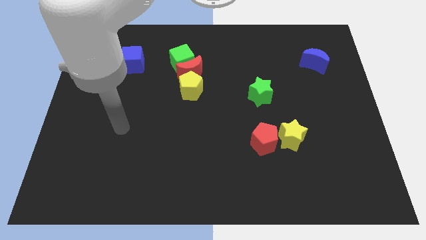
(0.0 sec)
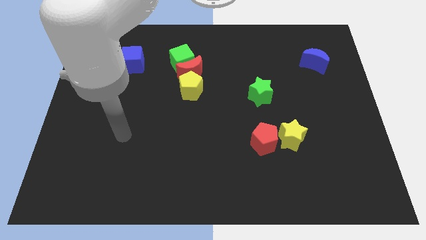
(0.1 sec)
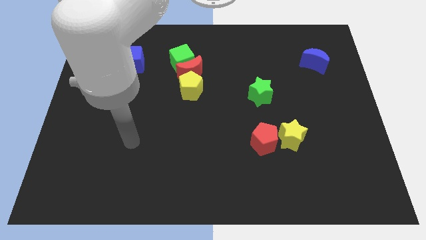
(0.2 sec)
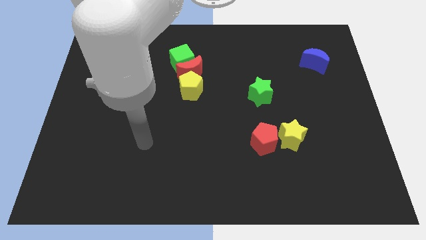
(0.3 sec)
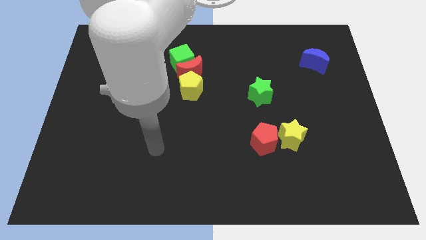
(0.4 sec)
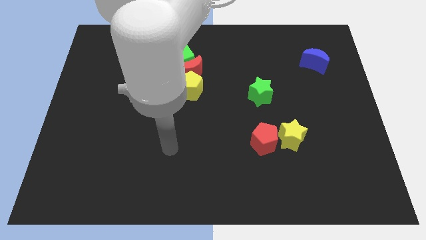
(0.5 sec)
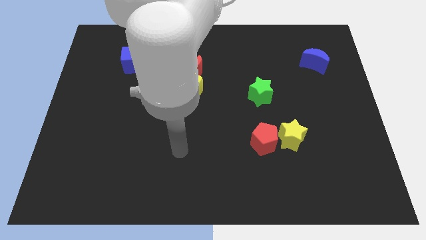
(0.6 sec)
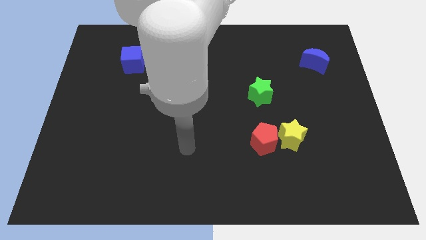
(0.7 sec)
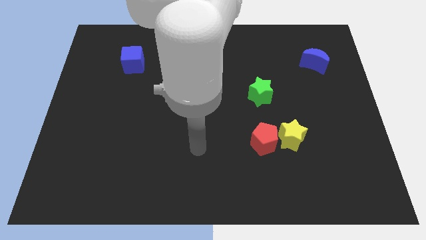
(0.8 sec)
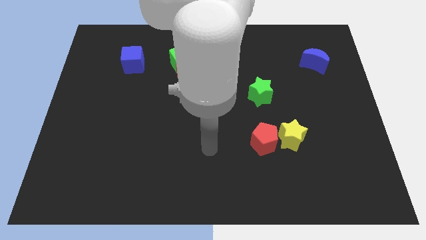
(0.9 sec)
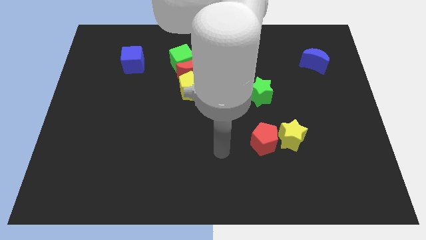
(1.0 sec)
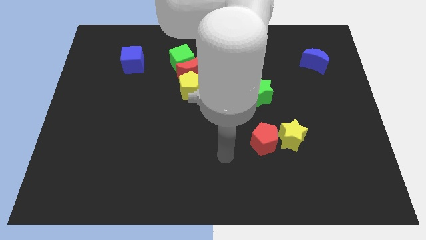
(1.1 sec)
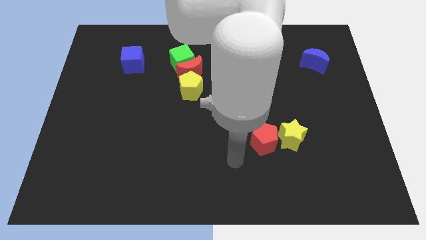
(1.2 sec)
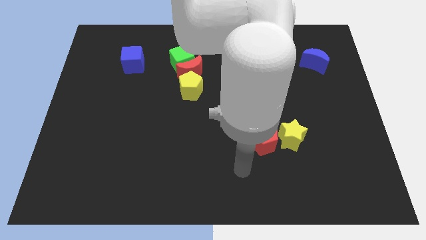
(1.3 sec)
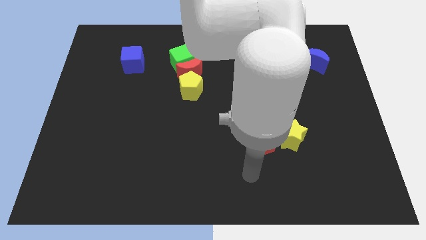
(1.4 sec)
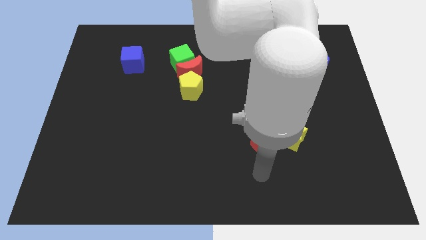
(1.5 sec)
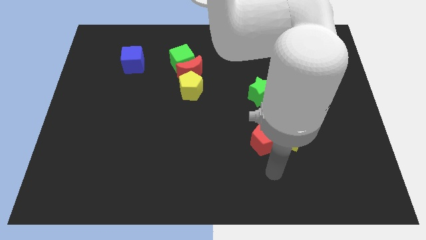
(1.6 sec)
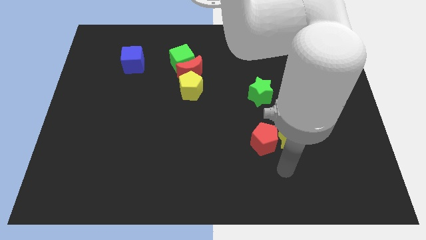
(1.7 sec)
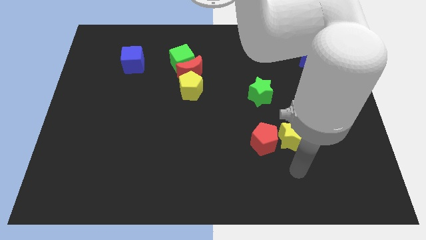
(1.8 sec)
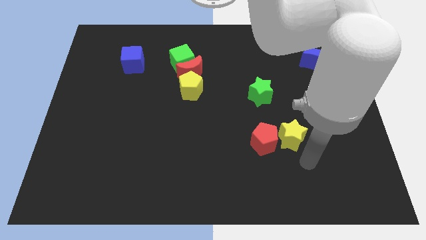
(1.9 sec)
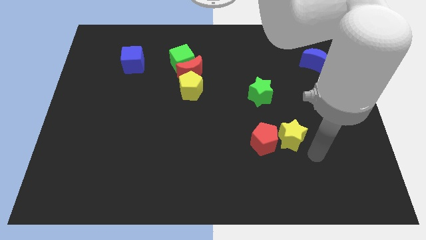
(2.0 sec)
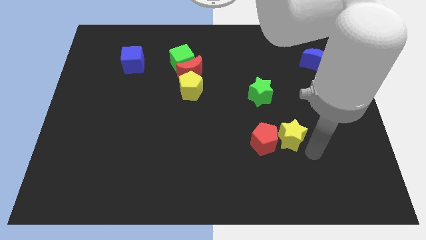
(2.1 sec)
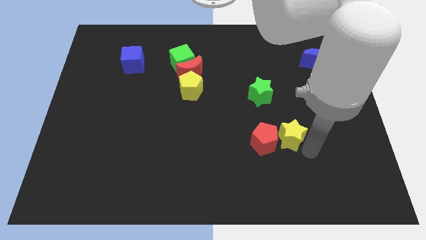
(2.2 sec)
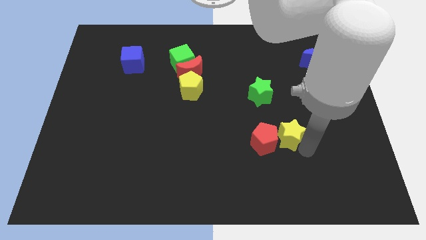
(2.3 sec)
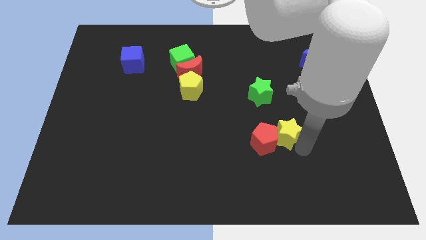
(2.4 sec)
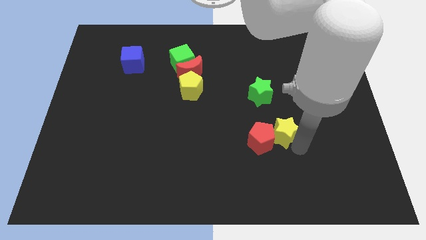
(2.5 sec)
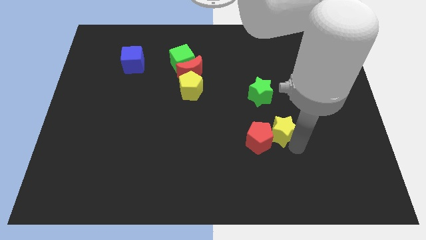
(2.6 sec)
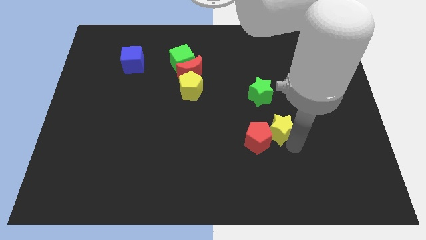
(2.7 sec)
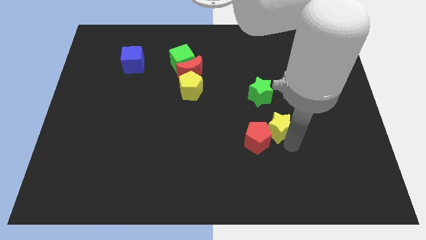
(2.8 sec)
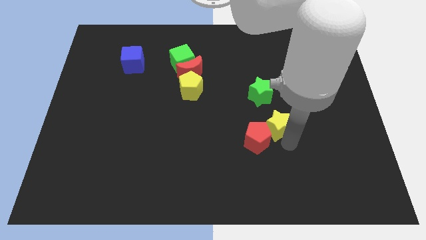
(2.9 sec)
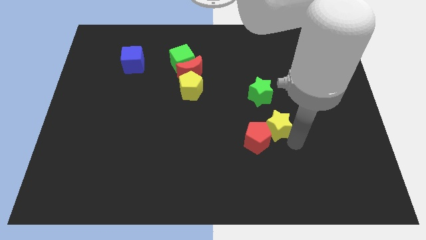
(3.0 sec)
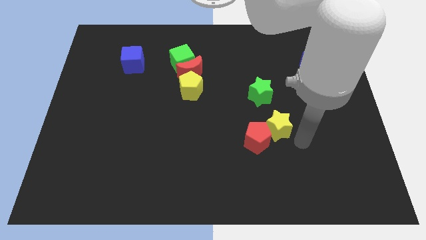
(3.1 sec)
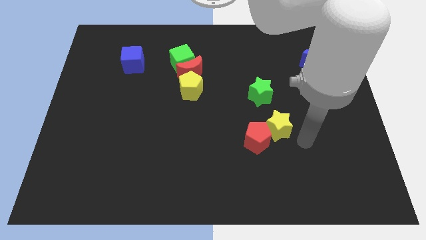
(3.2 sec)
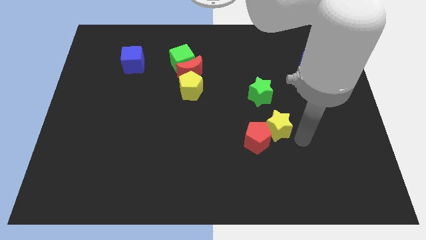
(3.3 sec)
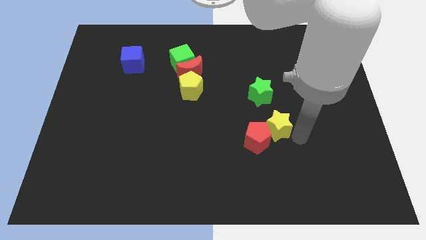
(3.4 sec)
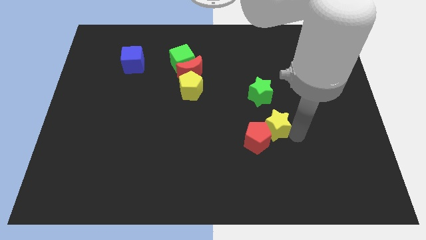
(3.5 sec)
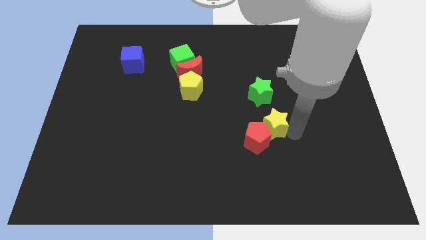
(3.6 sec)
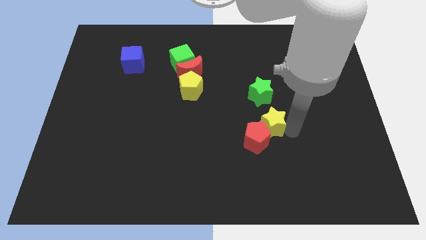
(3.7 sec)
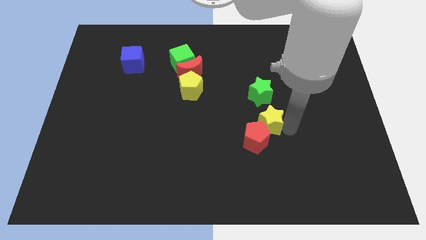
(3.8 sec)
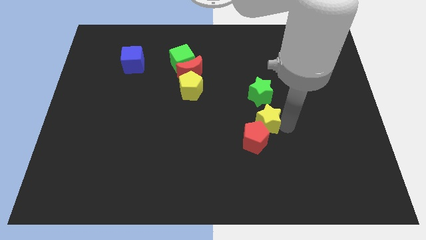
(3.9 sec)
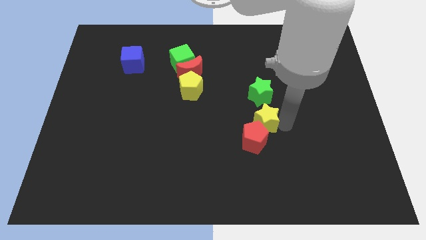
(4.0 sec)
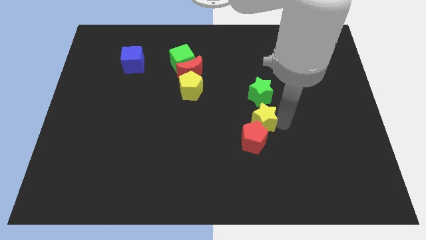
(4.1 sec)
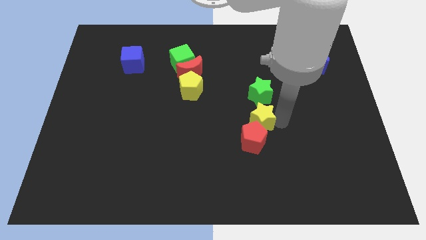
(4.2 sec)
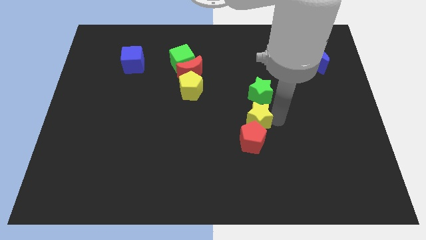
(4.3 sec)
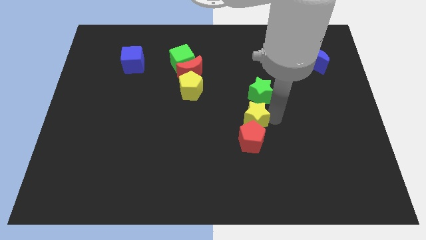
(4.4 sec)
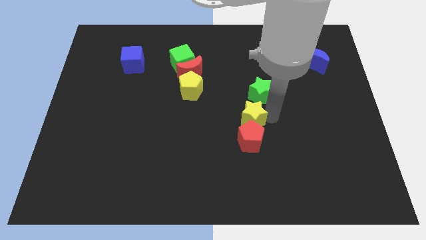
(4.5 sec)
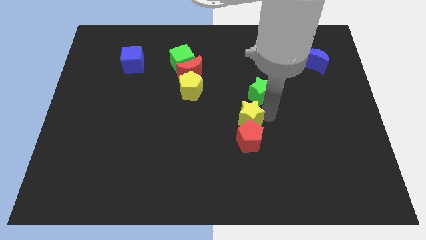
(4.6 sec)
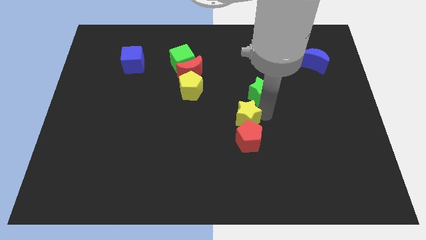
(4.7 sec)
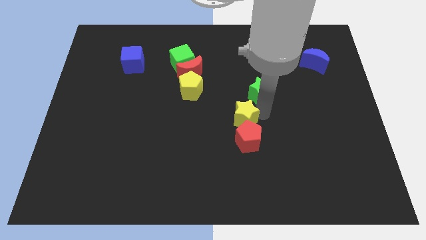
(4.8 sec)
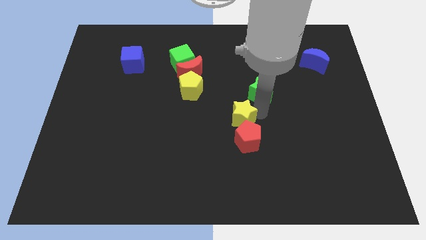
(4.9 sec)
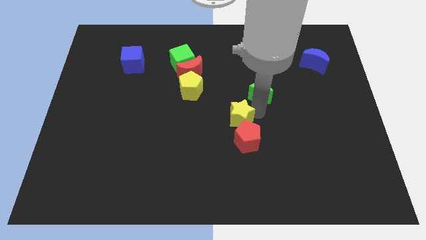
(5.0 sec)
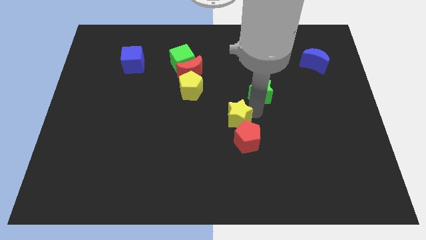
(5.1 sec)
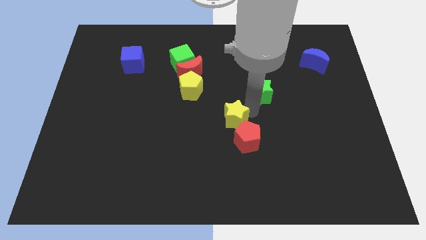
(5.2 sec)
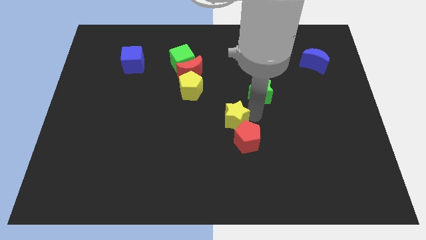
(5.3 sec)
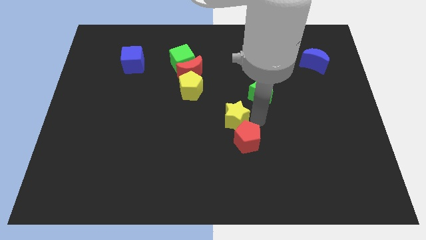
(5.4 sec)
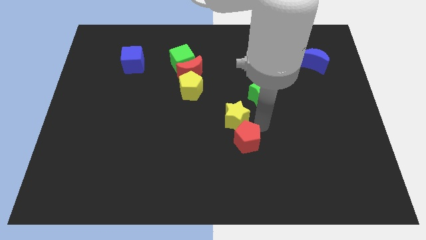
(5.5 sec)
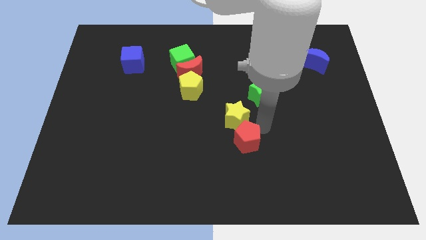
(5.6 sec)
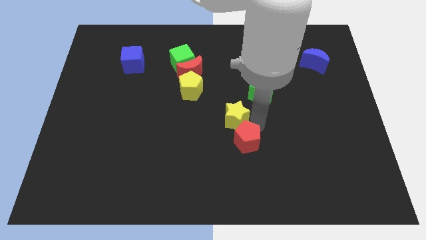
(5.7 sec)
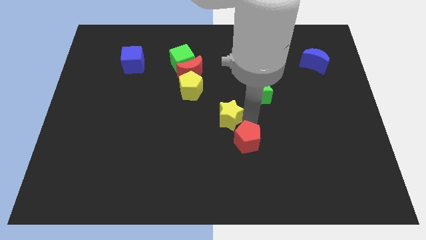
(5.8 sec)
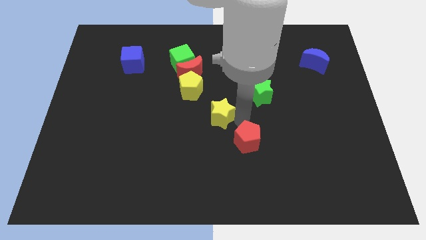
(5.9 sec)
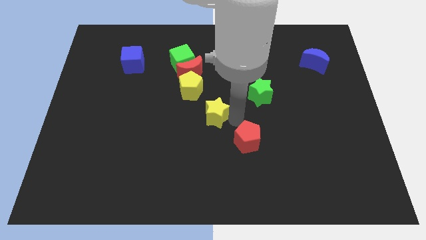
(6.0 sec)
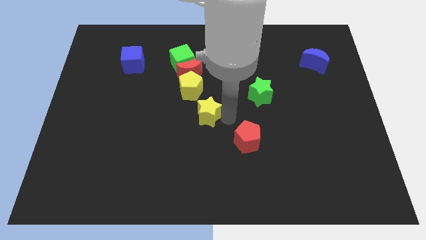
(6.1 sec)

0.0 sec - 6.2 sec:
slide the yellow star to the bottom of the red moon
